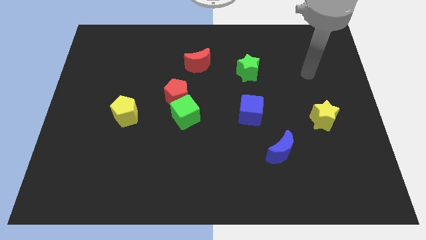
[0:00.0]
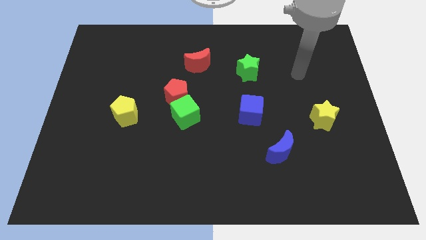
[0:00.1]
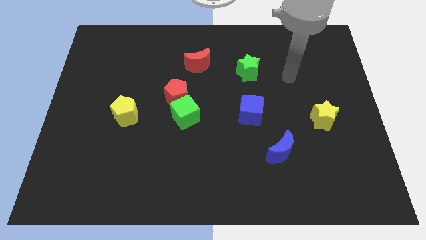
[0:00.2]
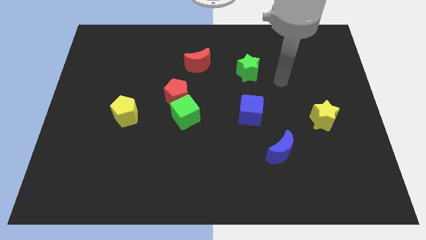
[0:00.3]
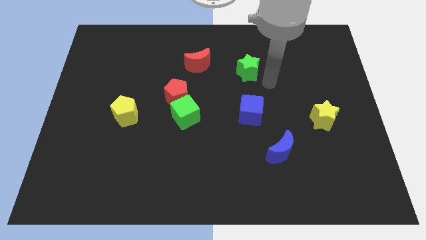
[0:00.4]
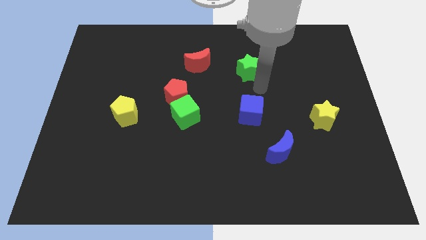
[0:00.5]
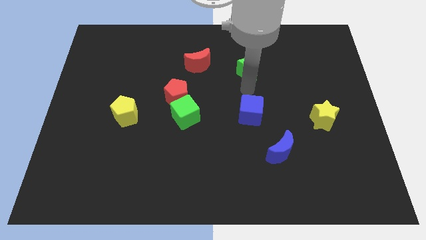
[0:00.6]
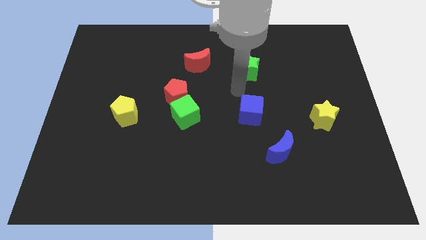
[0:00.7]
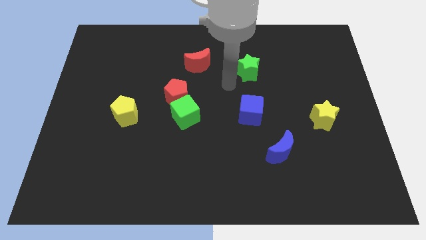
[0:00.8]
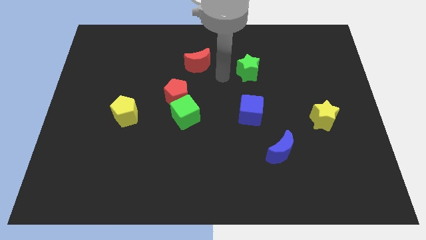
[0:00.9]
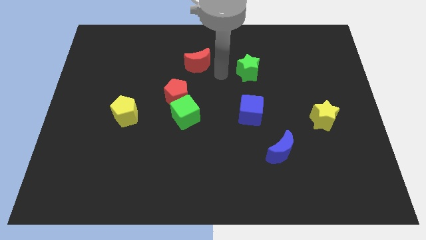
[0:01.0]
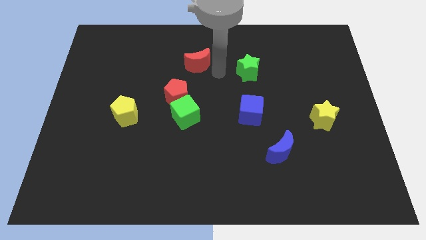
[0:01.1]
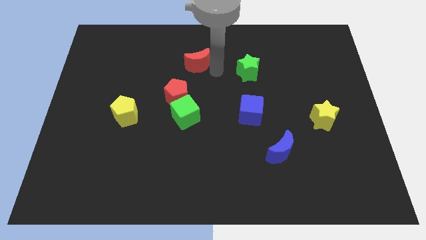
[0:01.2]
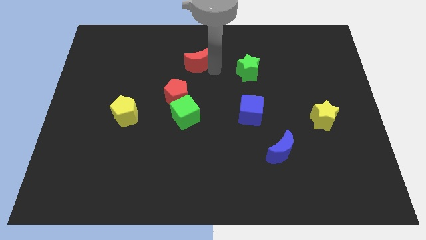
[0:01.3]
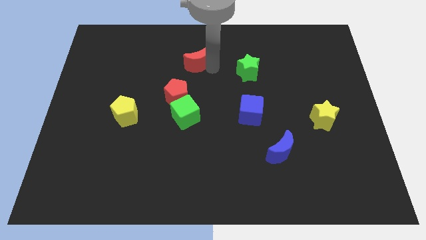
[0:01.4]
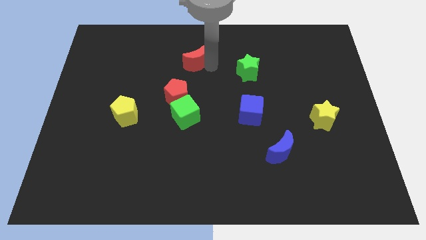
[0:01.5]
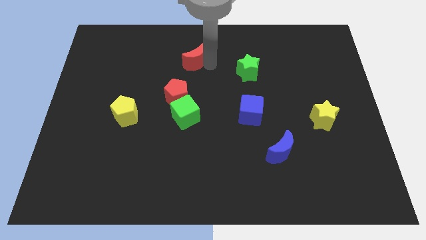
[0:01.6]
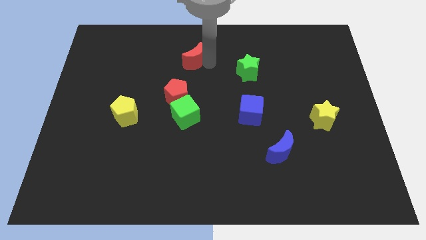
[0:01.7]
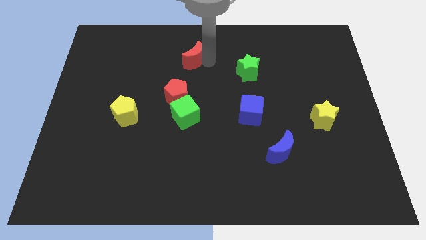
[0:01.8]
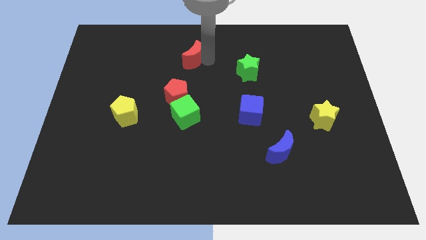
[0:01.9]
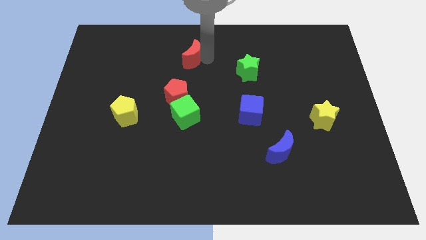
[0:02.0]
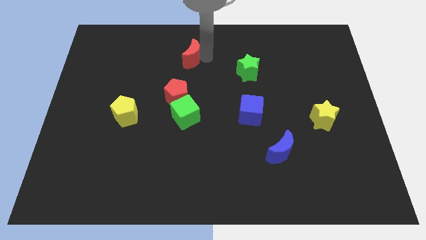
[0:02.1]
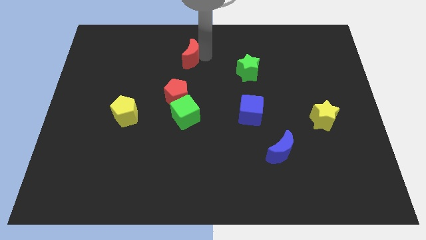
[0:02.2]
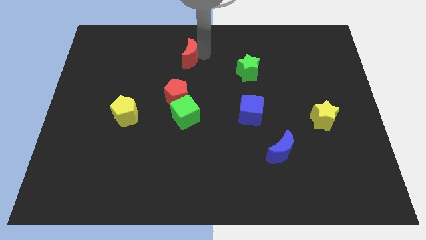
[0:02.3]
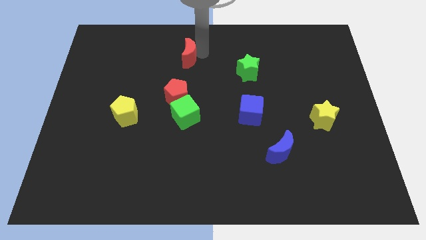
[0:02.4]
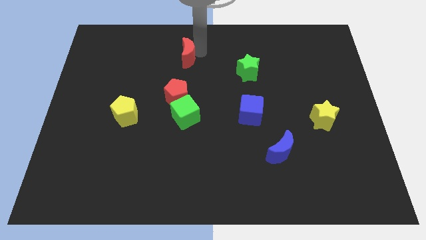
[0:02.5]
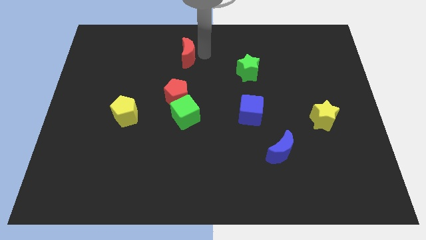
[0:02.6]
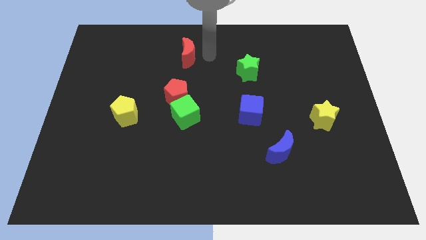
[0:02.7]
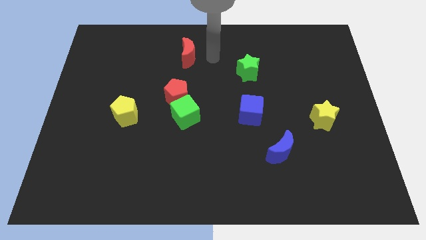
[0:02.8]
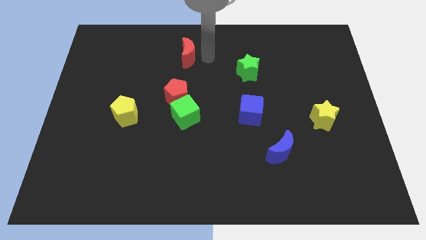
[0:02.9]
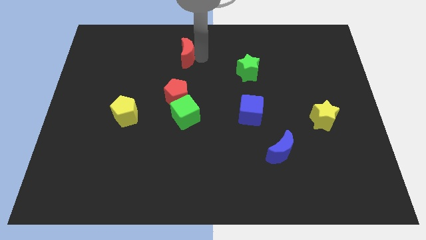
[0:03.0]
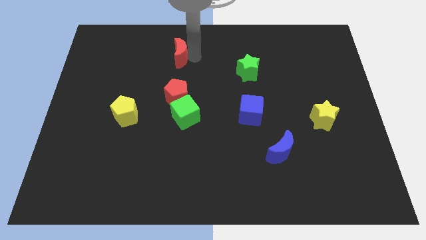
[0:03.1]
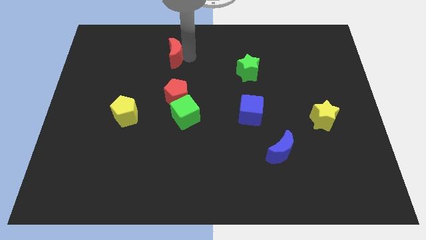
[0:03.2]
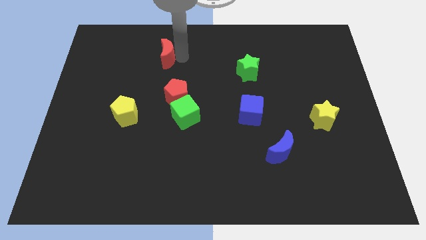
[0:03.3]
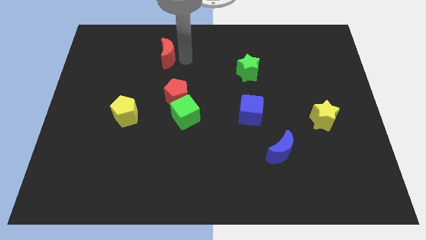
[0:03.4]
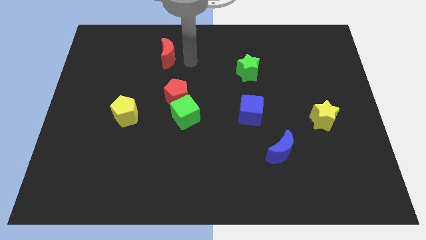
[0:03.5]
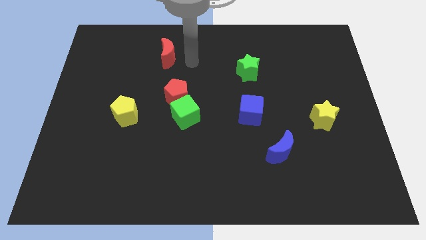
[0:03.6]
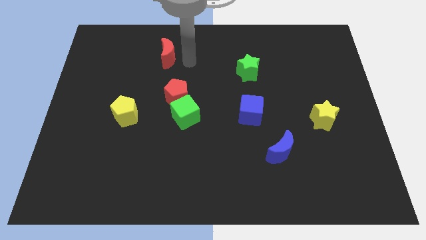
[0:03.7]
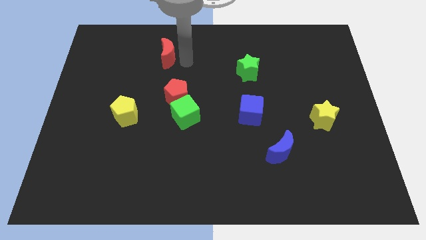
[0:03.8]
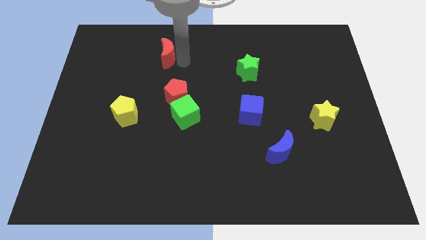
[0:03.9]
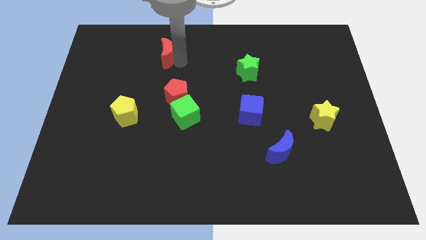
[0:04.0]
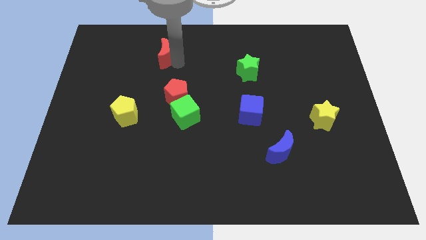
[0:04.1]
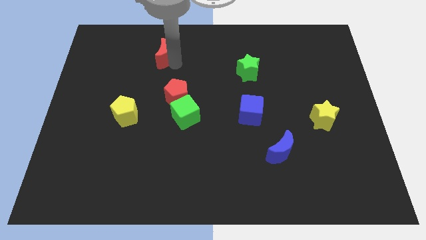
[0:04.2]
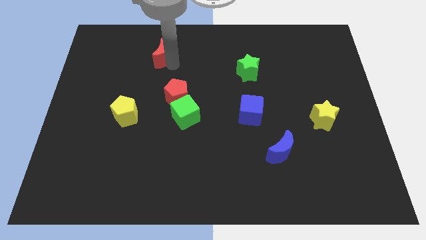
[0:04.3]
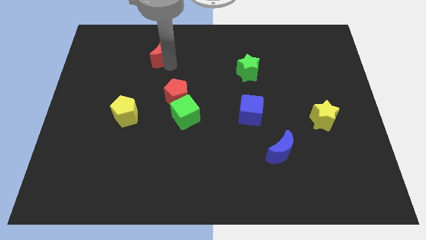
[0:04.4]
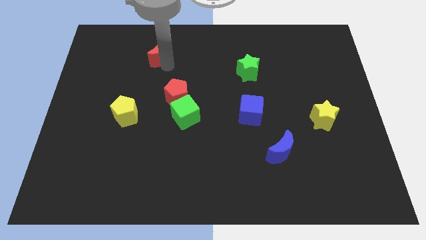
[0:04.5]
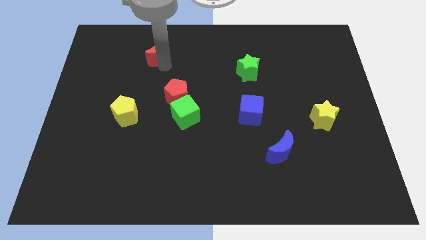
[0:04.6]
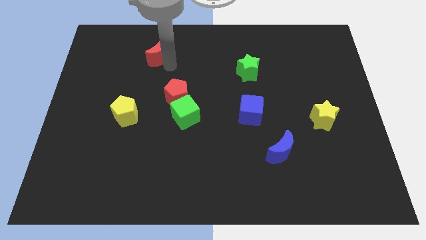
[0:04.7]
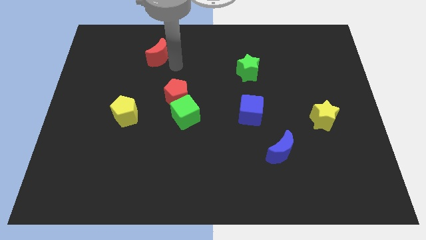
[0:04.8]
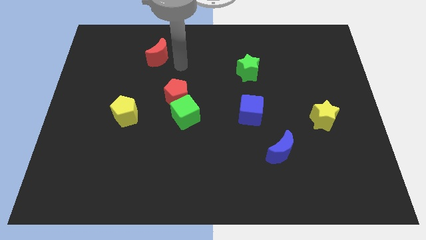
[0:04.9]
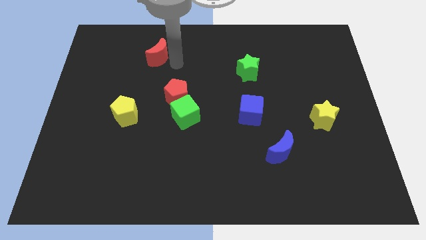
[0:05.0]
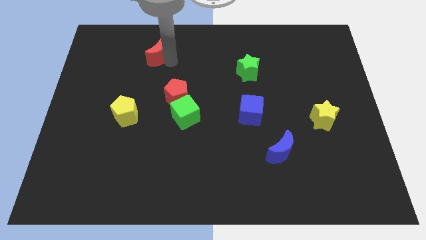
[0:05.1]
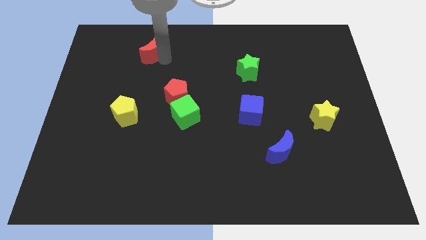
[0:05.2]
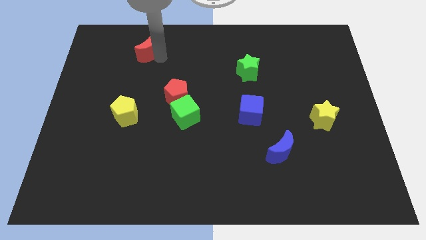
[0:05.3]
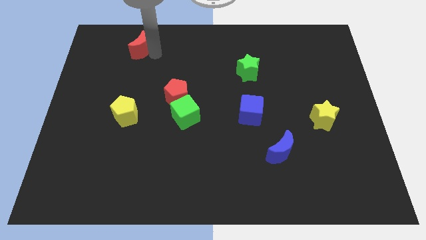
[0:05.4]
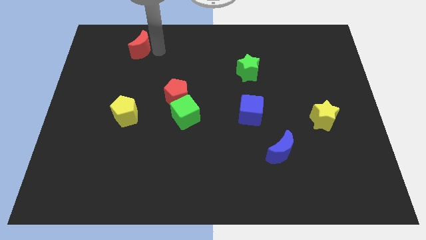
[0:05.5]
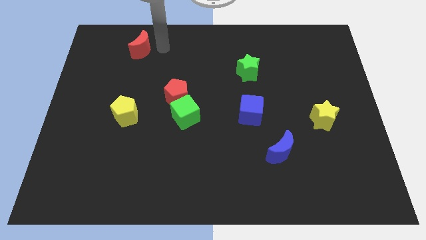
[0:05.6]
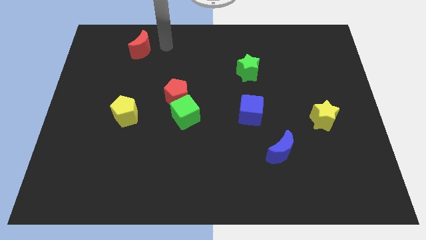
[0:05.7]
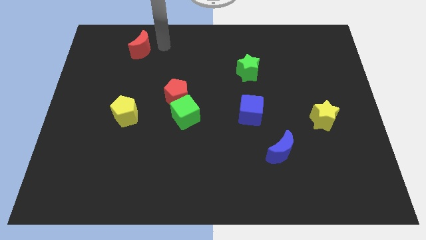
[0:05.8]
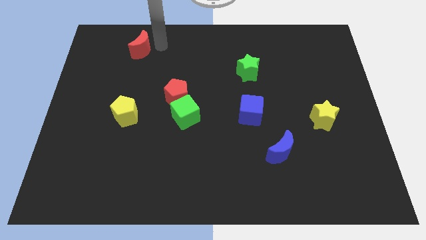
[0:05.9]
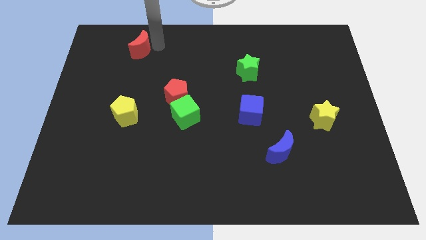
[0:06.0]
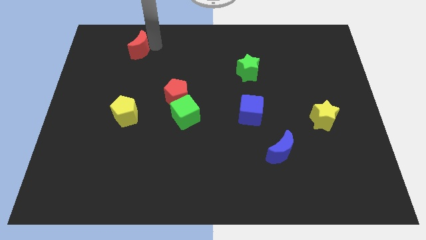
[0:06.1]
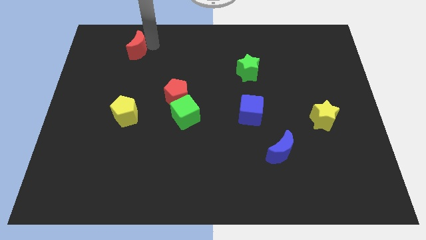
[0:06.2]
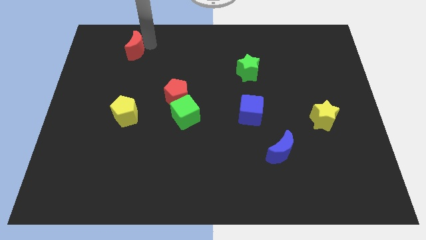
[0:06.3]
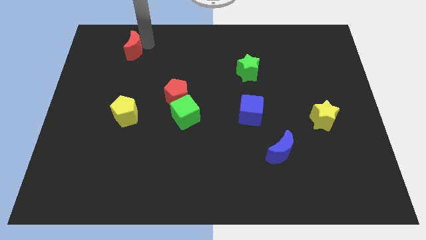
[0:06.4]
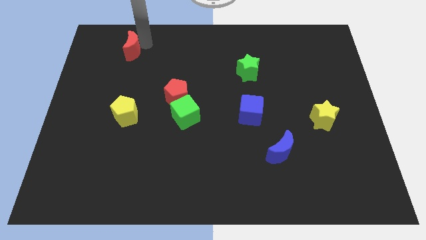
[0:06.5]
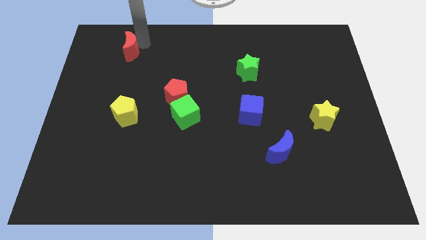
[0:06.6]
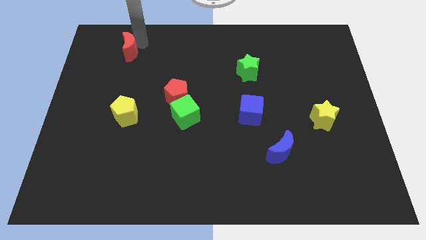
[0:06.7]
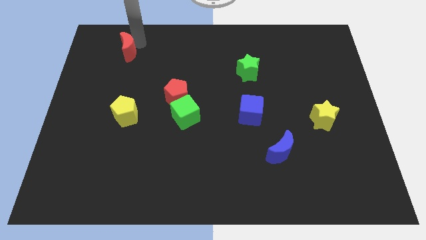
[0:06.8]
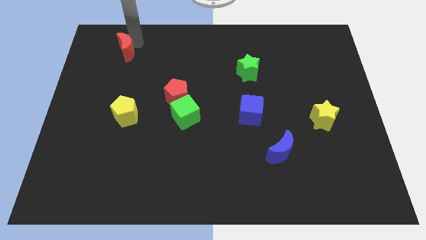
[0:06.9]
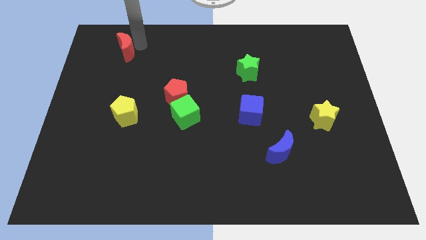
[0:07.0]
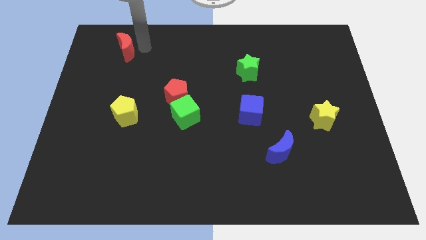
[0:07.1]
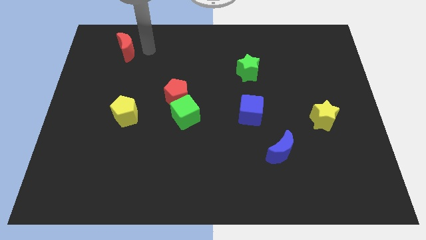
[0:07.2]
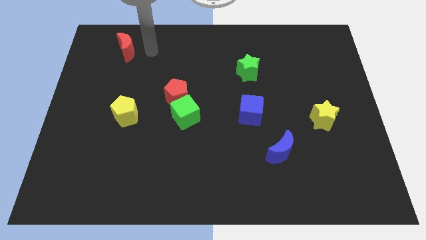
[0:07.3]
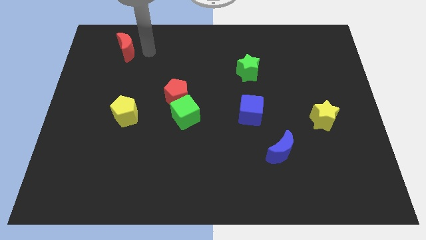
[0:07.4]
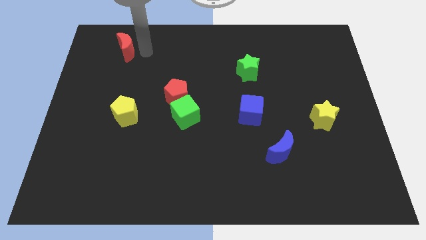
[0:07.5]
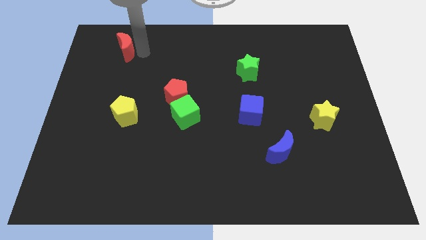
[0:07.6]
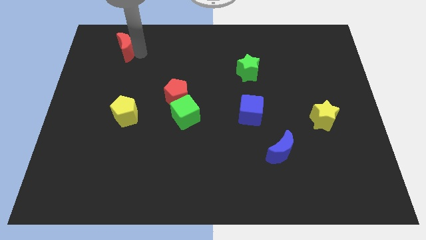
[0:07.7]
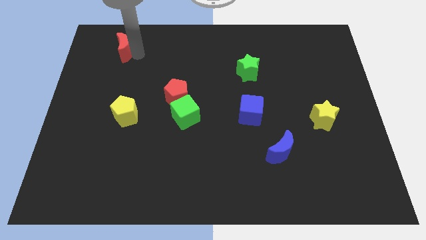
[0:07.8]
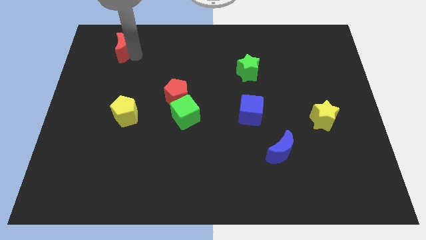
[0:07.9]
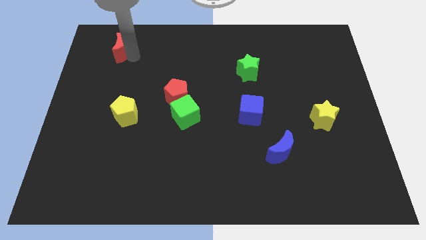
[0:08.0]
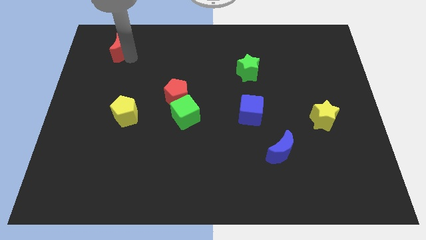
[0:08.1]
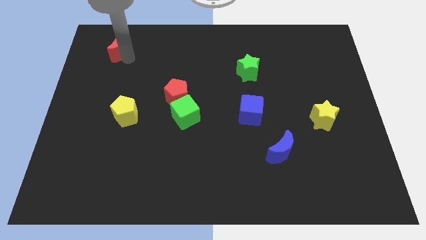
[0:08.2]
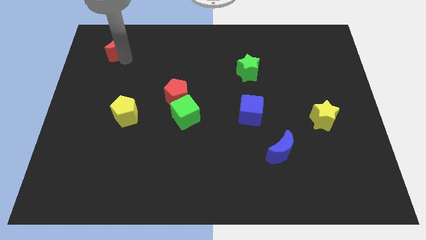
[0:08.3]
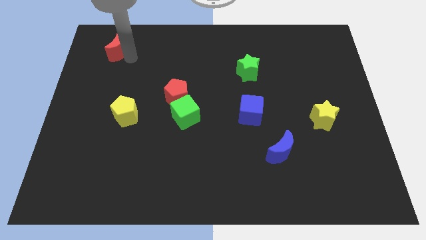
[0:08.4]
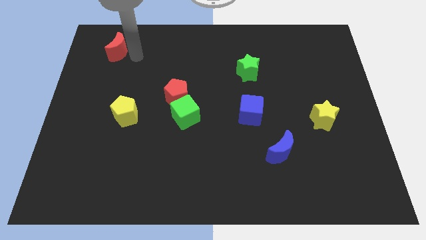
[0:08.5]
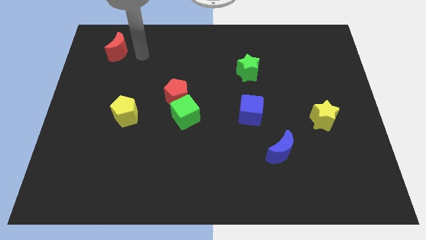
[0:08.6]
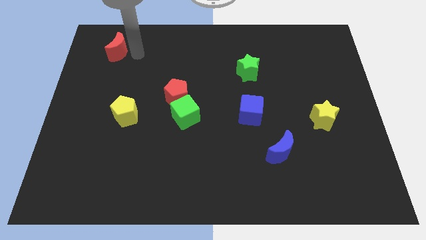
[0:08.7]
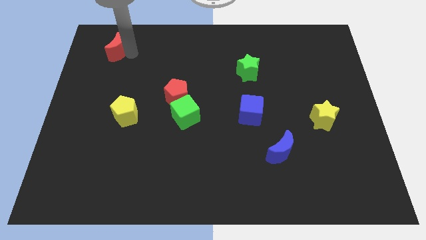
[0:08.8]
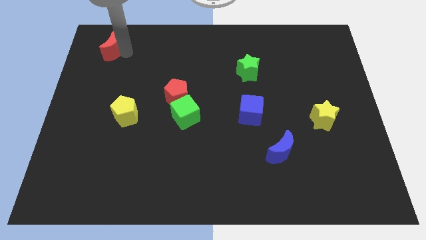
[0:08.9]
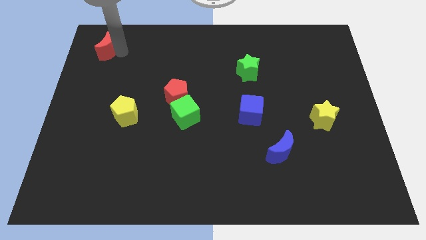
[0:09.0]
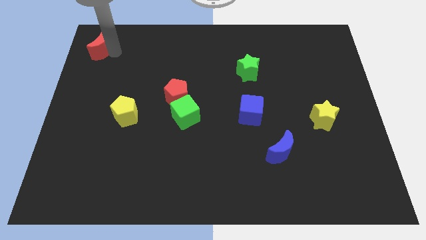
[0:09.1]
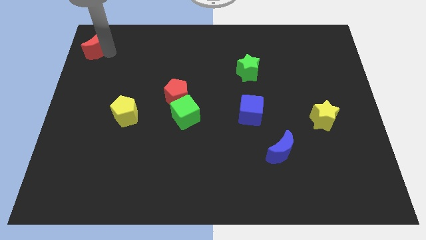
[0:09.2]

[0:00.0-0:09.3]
push the red moon to the top left corner
